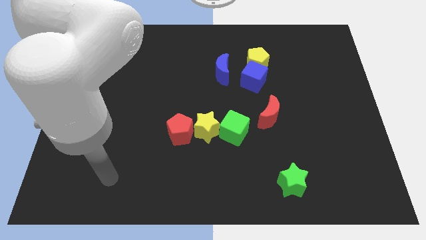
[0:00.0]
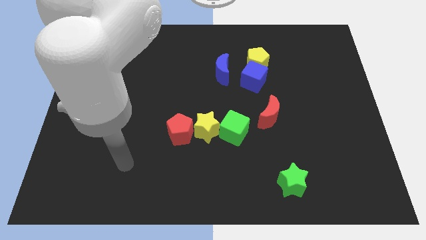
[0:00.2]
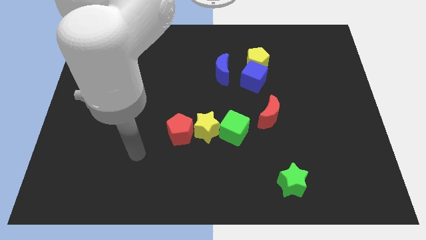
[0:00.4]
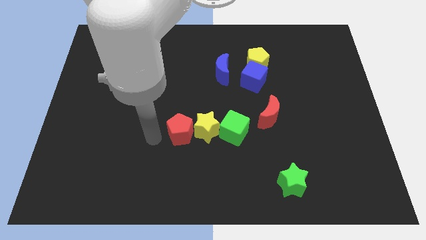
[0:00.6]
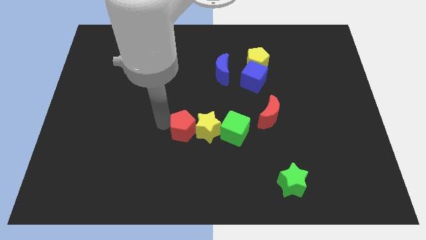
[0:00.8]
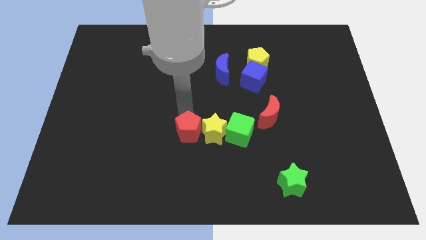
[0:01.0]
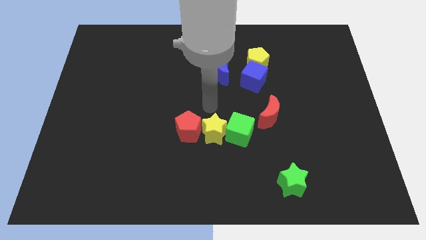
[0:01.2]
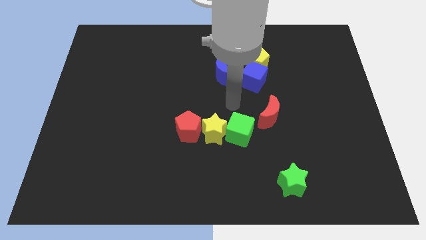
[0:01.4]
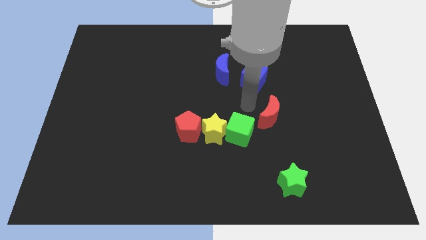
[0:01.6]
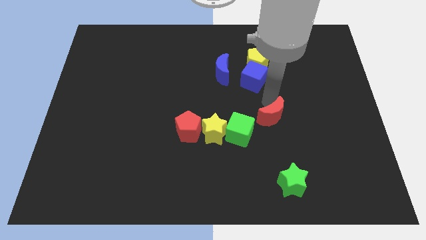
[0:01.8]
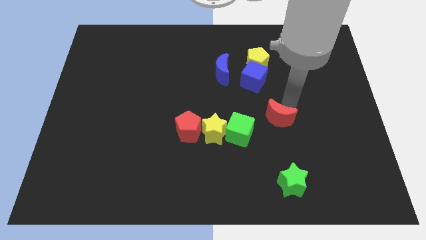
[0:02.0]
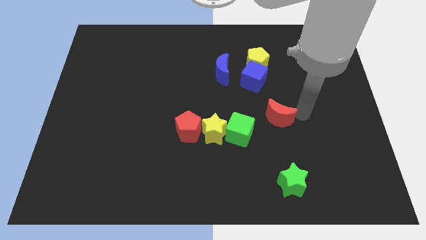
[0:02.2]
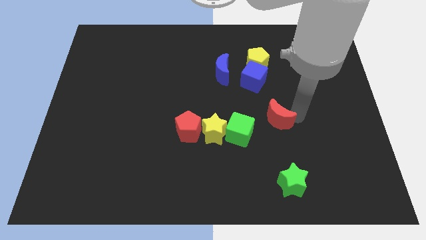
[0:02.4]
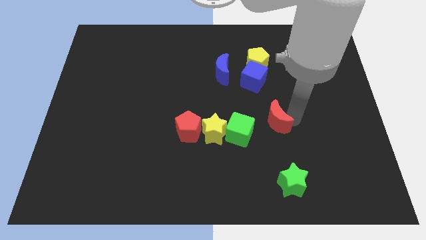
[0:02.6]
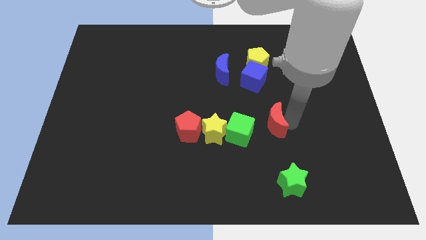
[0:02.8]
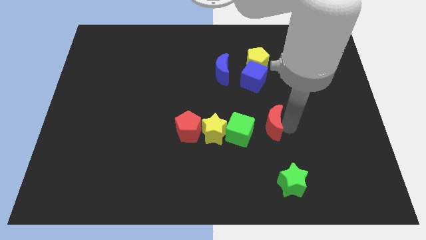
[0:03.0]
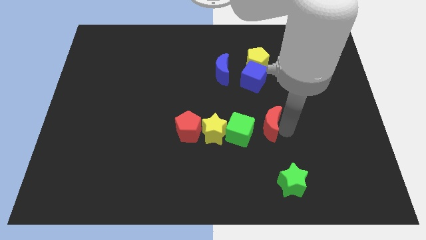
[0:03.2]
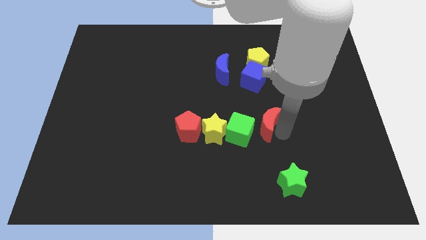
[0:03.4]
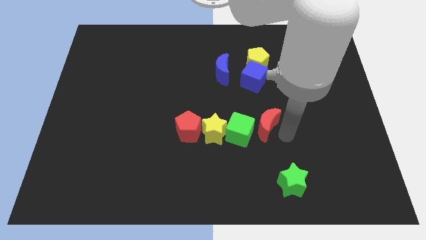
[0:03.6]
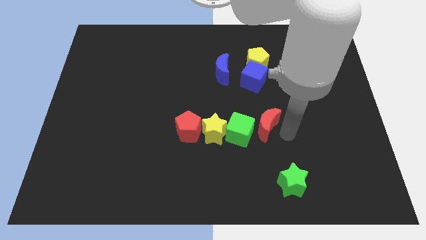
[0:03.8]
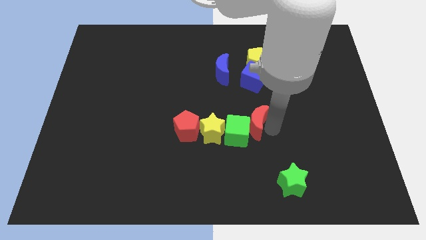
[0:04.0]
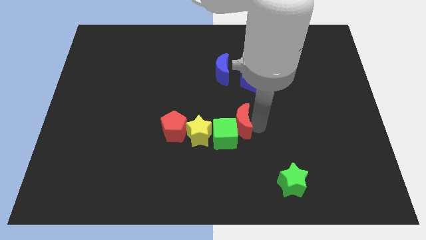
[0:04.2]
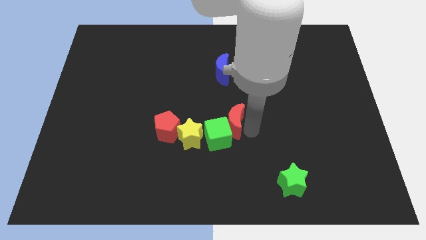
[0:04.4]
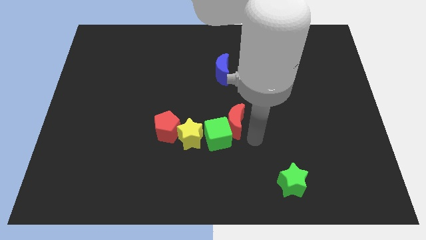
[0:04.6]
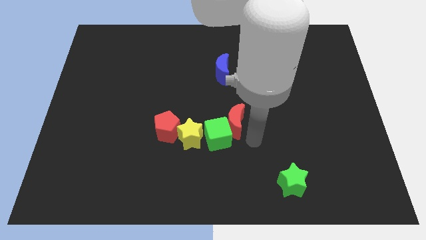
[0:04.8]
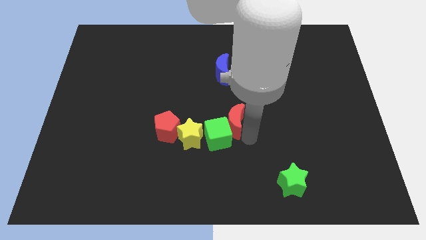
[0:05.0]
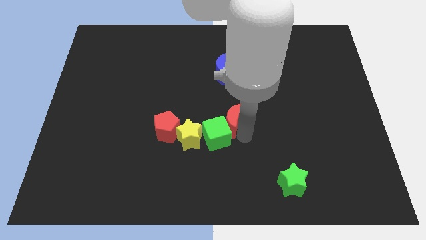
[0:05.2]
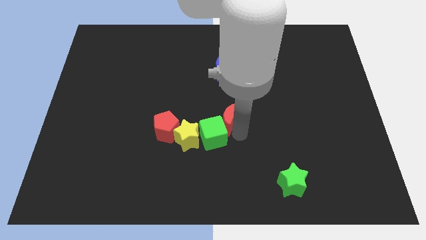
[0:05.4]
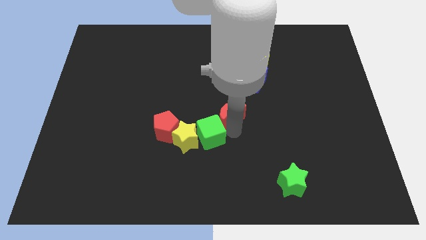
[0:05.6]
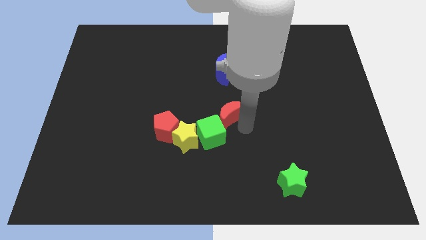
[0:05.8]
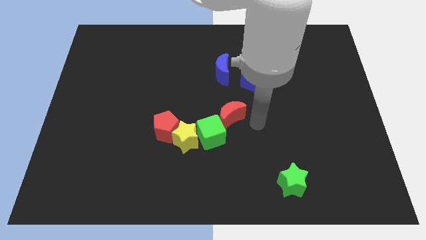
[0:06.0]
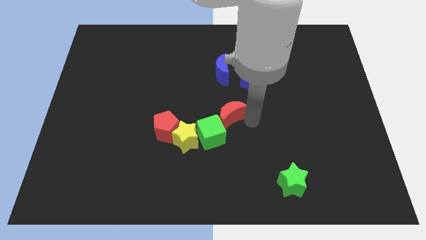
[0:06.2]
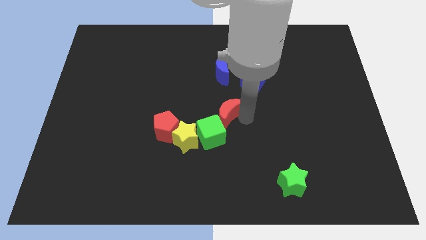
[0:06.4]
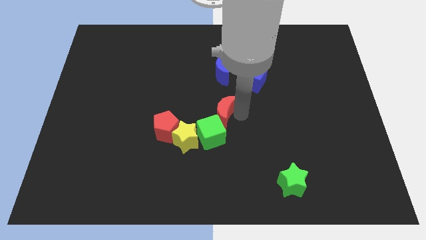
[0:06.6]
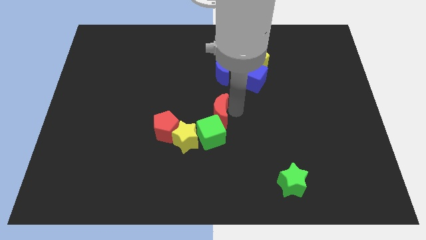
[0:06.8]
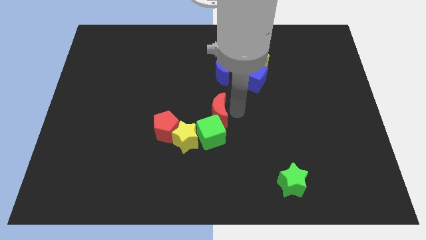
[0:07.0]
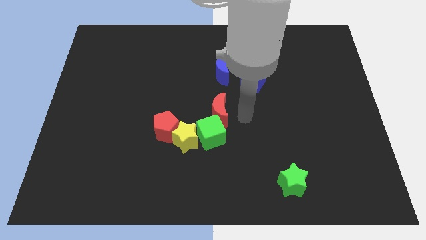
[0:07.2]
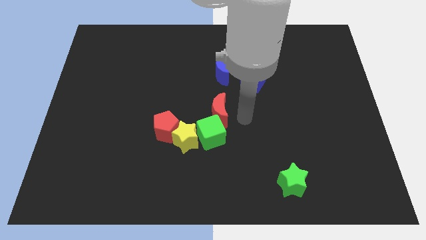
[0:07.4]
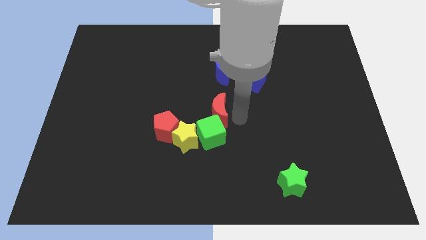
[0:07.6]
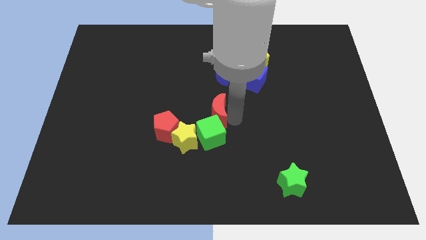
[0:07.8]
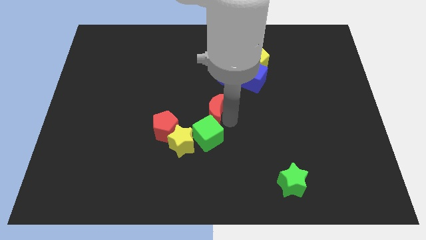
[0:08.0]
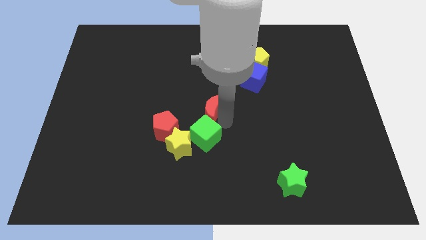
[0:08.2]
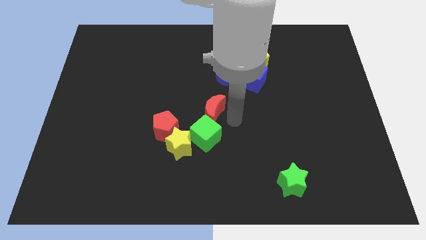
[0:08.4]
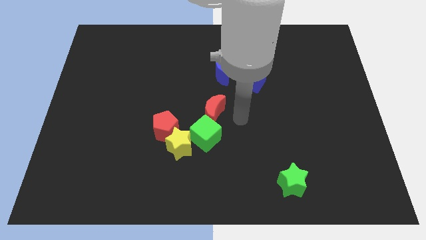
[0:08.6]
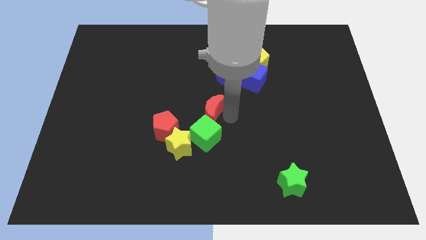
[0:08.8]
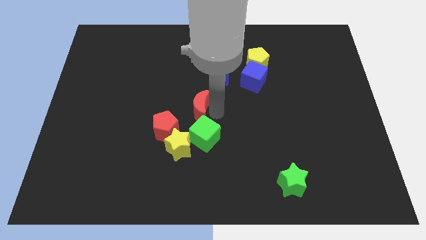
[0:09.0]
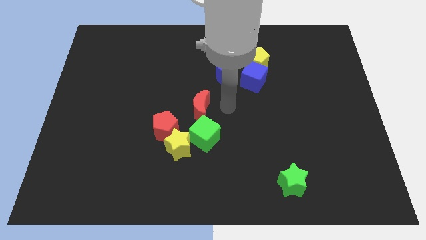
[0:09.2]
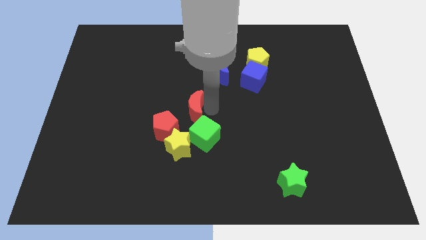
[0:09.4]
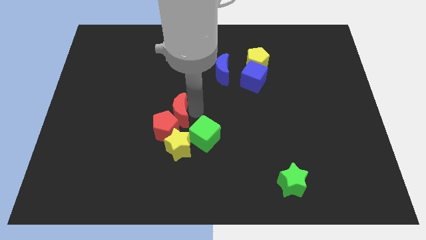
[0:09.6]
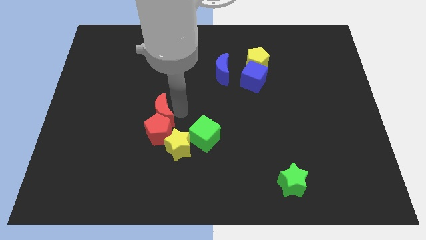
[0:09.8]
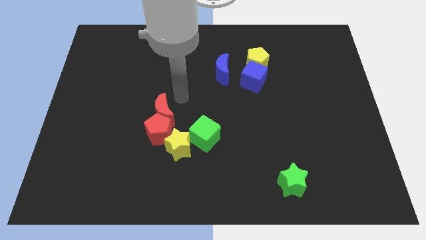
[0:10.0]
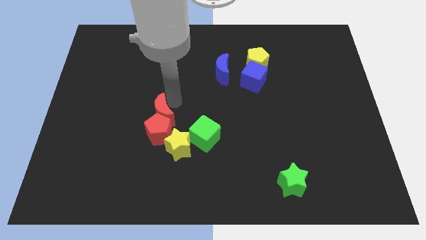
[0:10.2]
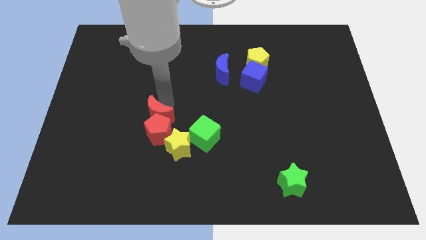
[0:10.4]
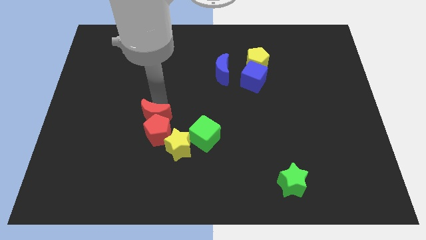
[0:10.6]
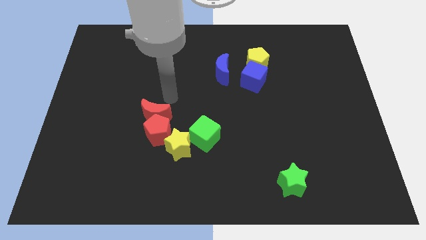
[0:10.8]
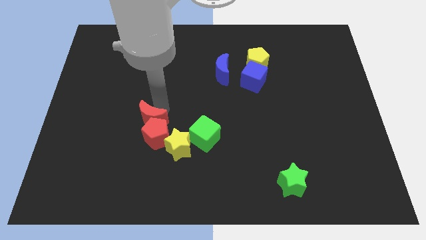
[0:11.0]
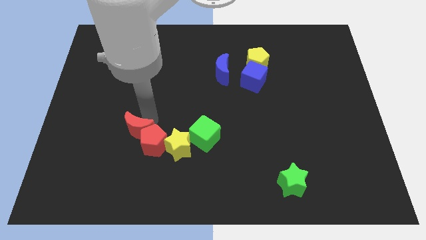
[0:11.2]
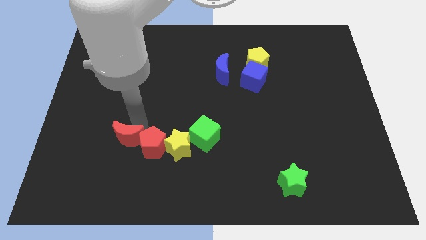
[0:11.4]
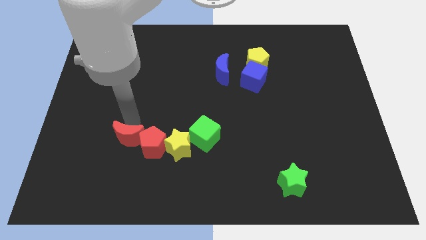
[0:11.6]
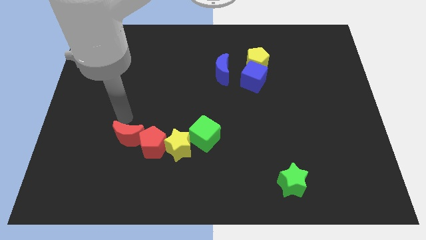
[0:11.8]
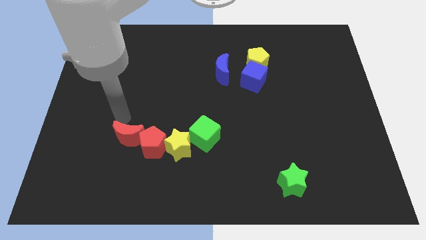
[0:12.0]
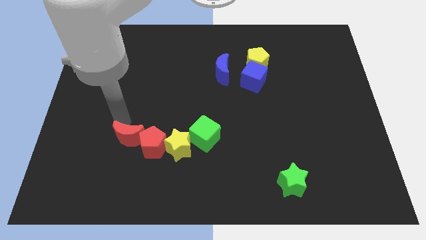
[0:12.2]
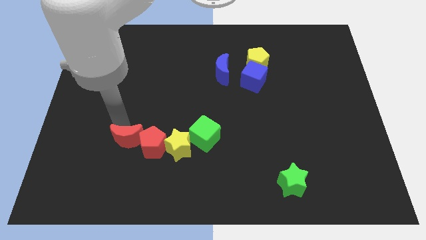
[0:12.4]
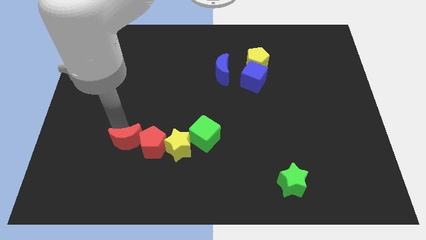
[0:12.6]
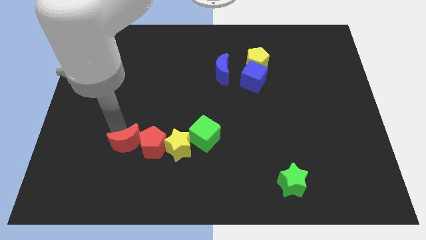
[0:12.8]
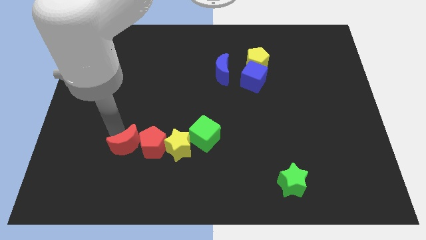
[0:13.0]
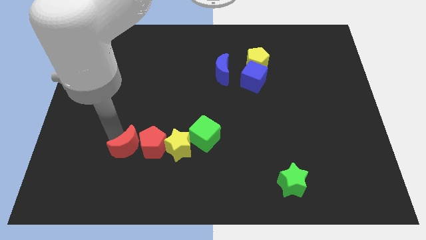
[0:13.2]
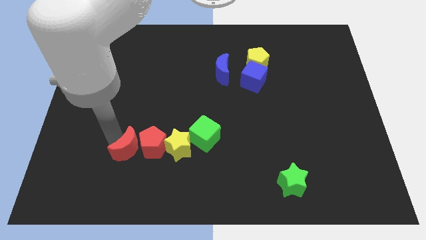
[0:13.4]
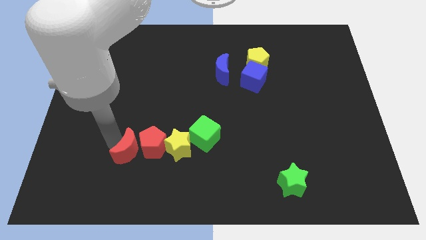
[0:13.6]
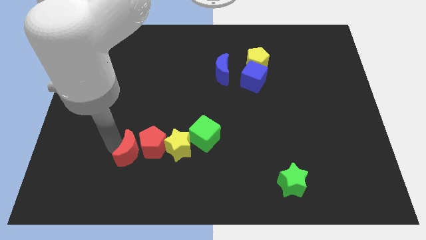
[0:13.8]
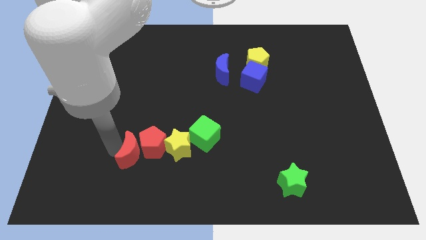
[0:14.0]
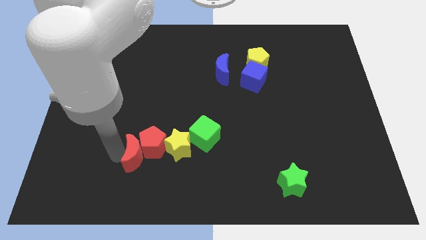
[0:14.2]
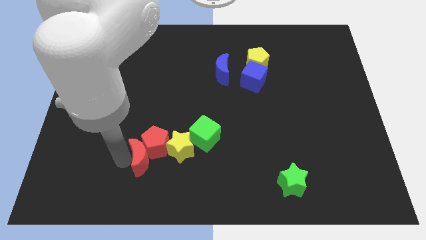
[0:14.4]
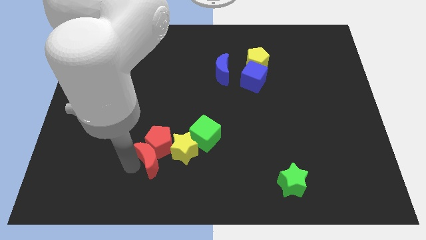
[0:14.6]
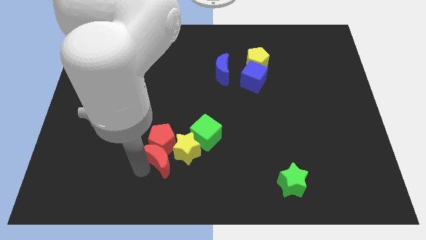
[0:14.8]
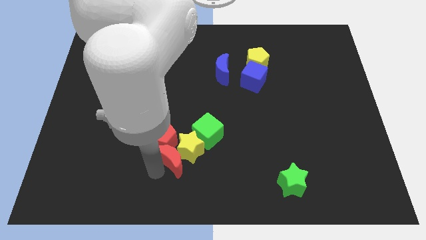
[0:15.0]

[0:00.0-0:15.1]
put the red moon left of the yellow star
